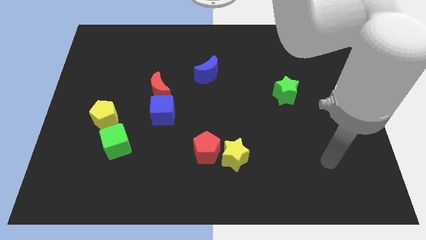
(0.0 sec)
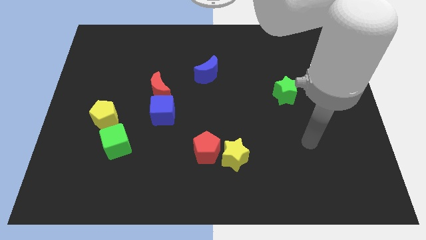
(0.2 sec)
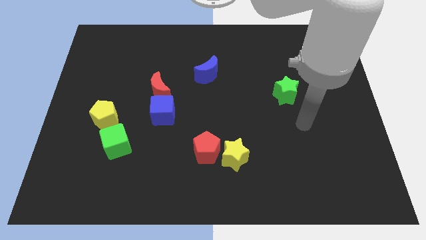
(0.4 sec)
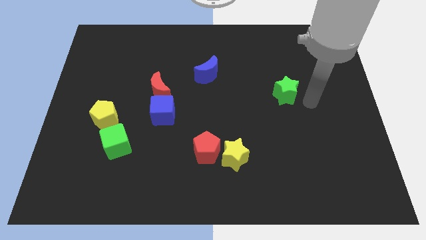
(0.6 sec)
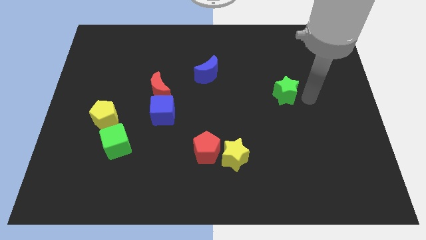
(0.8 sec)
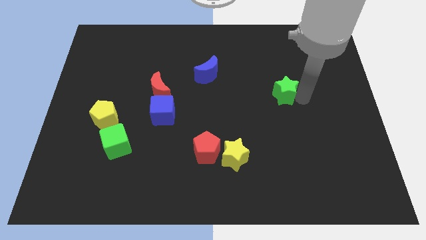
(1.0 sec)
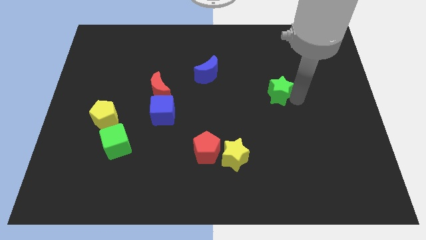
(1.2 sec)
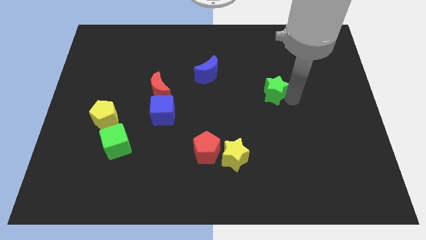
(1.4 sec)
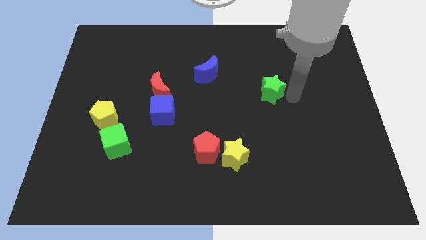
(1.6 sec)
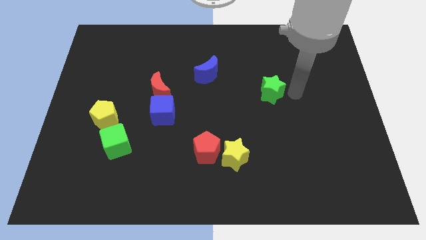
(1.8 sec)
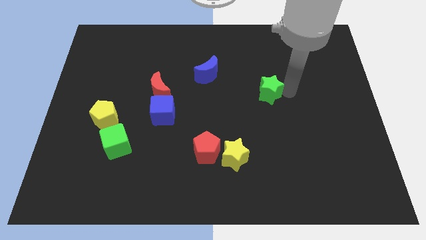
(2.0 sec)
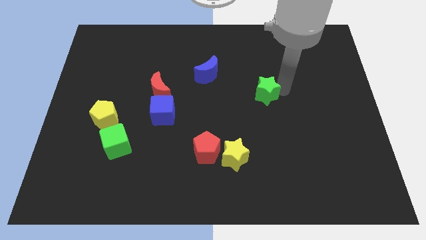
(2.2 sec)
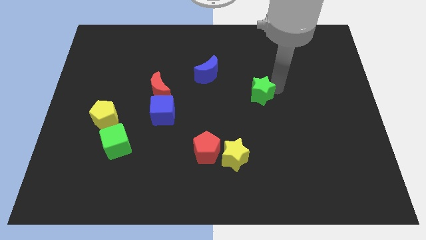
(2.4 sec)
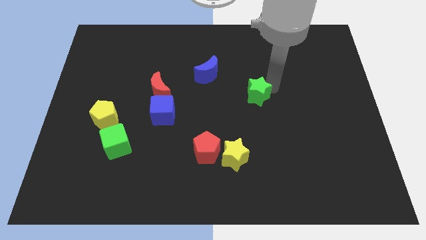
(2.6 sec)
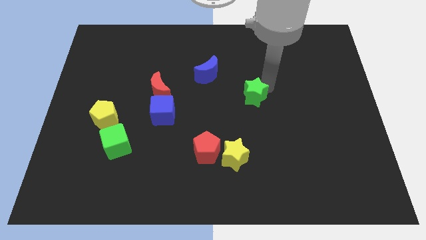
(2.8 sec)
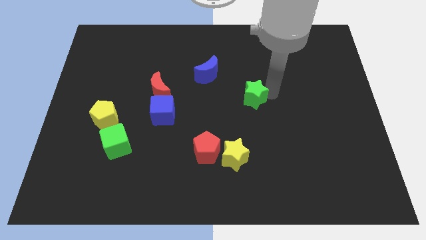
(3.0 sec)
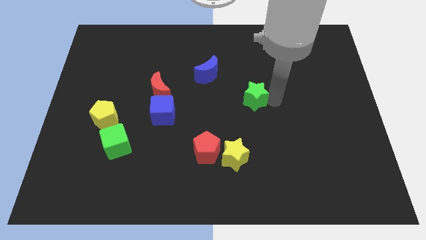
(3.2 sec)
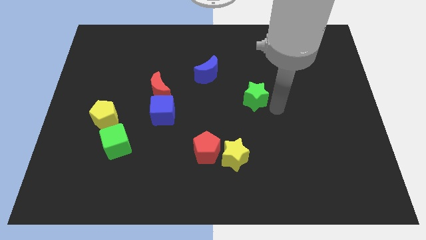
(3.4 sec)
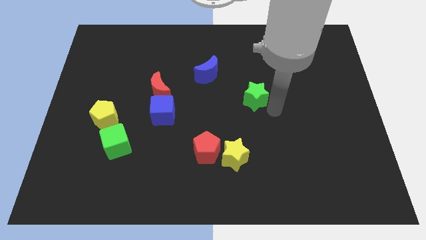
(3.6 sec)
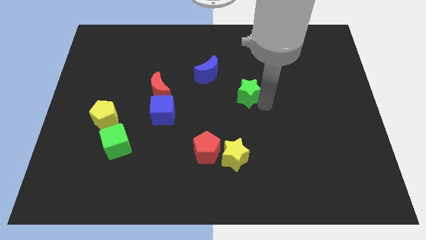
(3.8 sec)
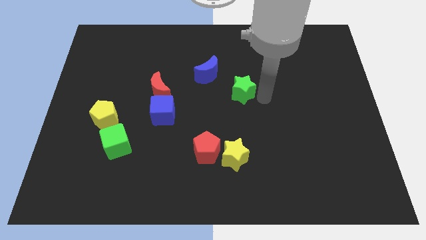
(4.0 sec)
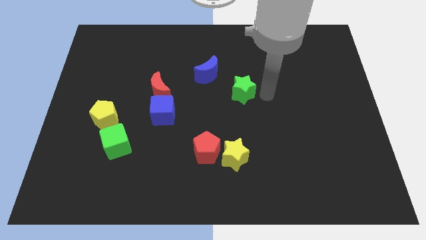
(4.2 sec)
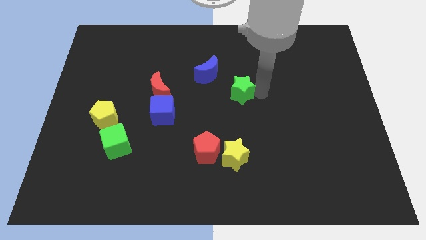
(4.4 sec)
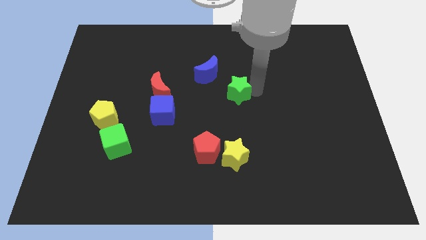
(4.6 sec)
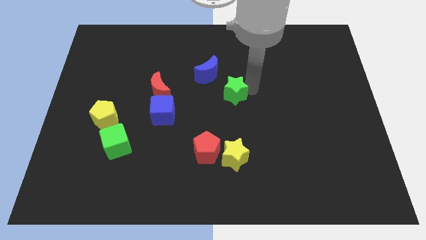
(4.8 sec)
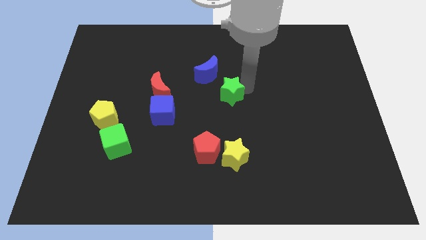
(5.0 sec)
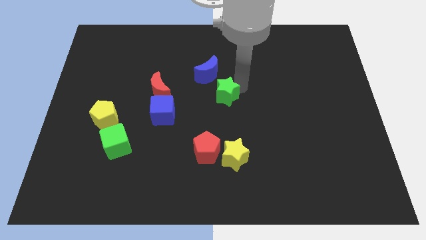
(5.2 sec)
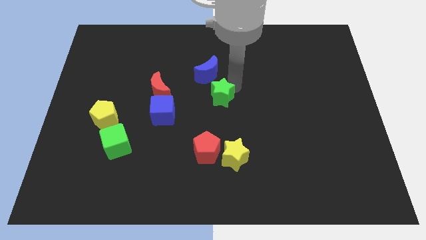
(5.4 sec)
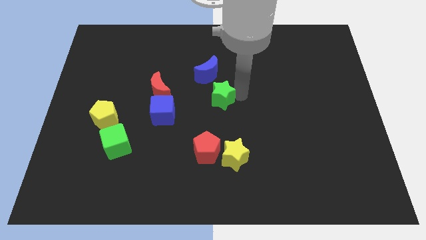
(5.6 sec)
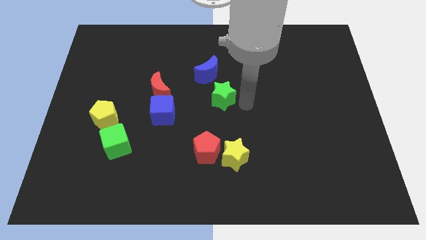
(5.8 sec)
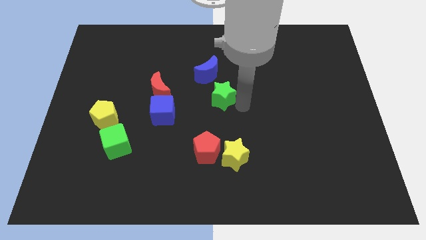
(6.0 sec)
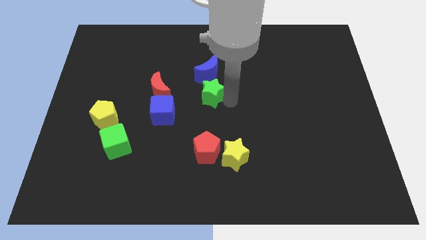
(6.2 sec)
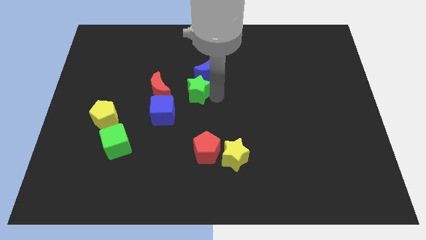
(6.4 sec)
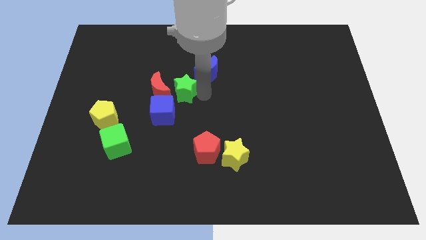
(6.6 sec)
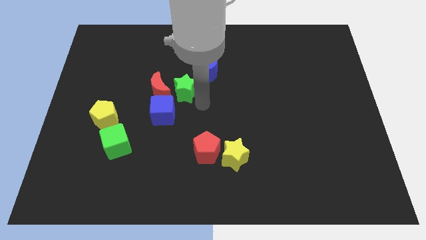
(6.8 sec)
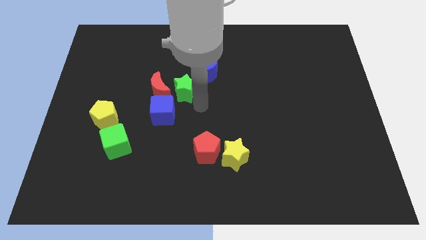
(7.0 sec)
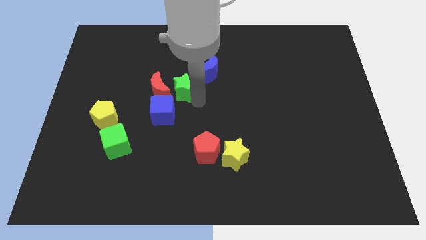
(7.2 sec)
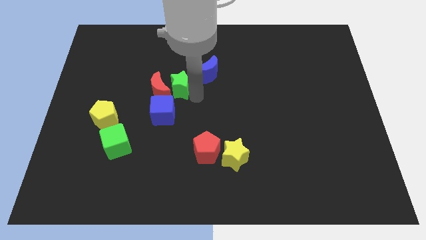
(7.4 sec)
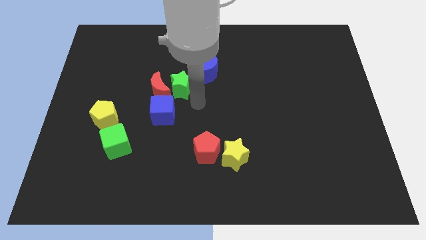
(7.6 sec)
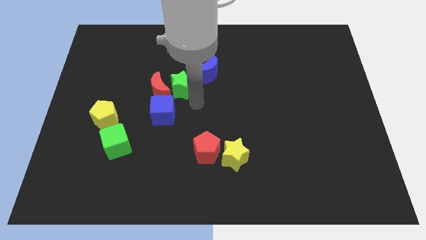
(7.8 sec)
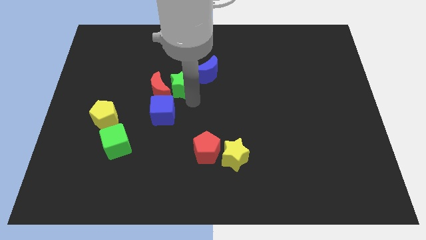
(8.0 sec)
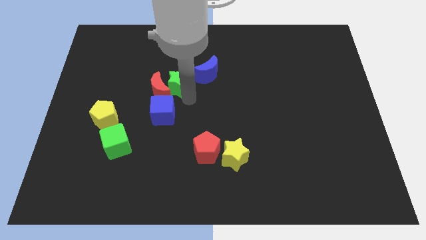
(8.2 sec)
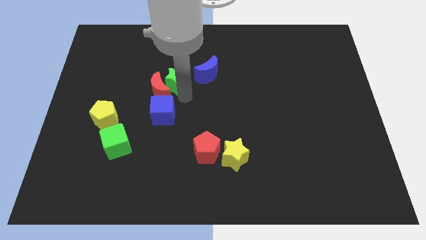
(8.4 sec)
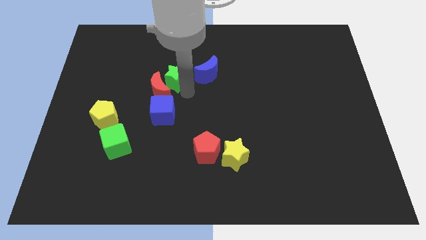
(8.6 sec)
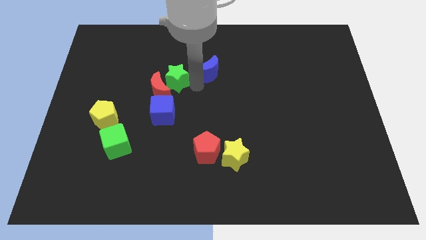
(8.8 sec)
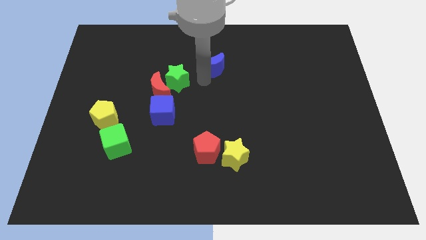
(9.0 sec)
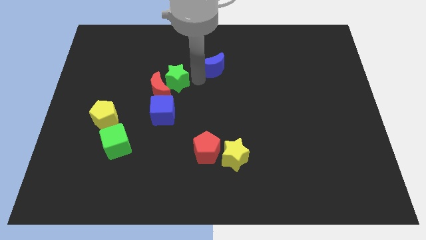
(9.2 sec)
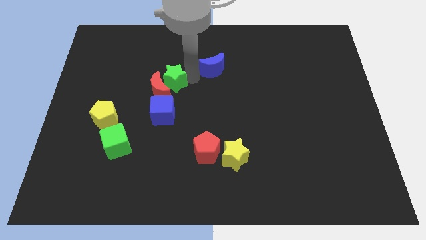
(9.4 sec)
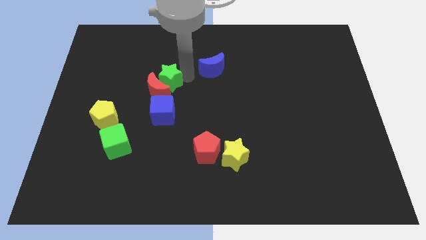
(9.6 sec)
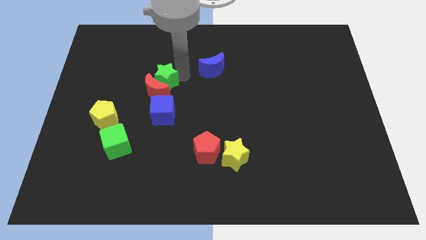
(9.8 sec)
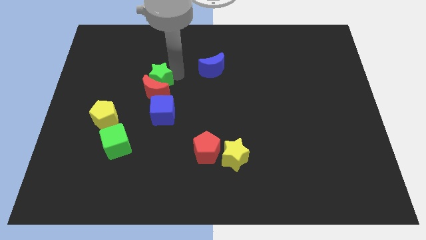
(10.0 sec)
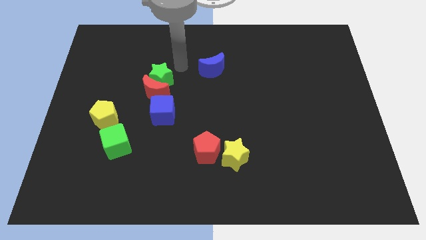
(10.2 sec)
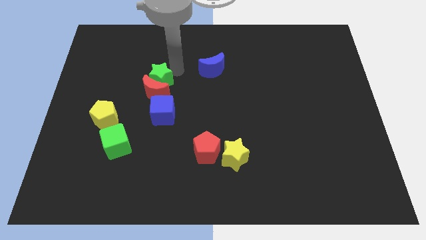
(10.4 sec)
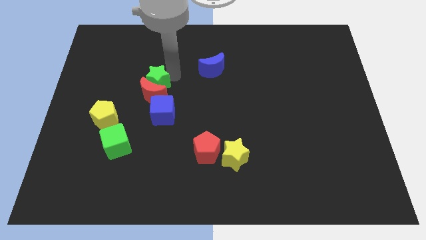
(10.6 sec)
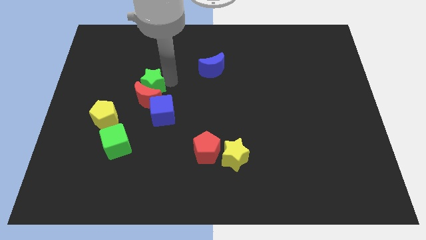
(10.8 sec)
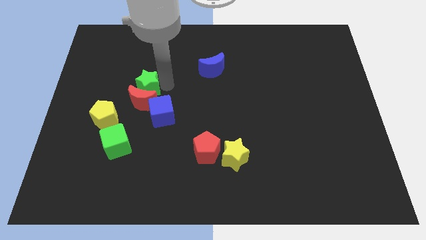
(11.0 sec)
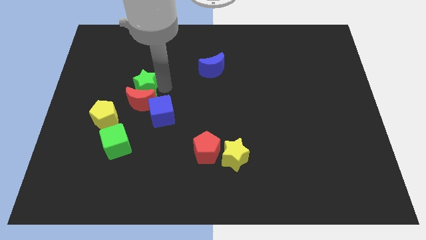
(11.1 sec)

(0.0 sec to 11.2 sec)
move the green star to the top right of the yellow pentagon

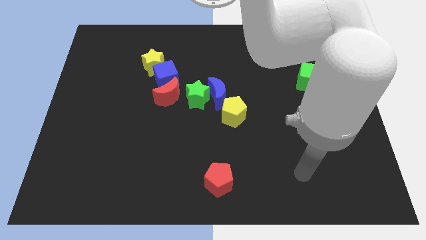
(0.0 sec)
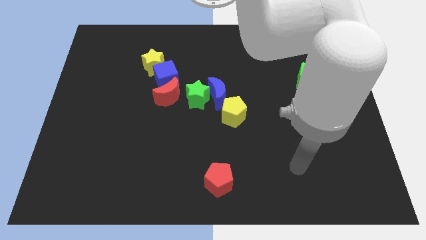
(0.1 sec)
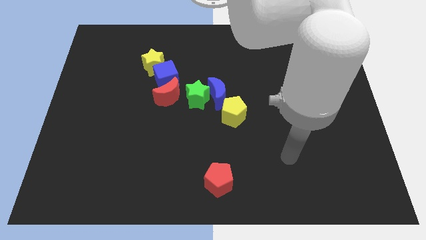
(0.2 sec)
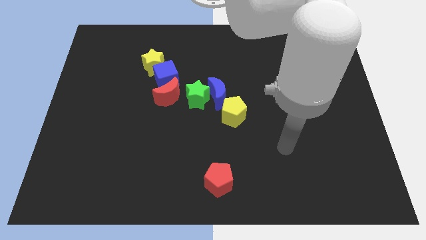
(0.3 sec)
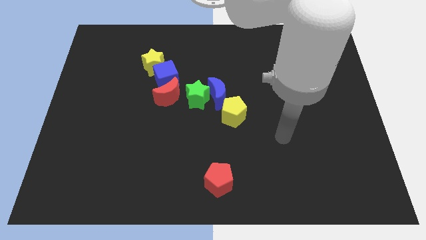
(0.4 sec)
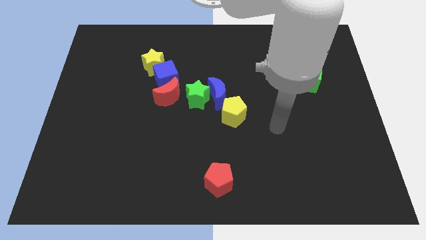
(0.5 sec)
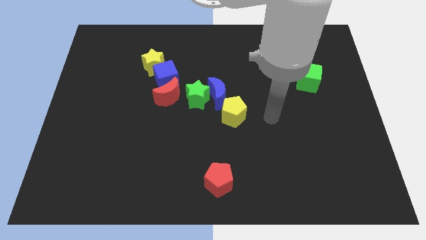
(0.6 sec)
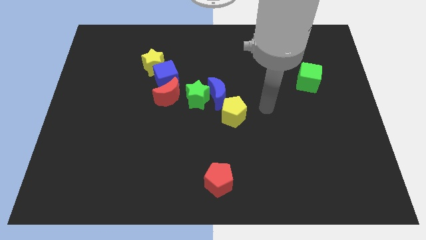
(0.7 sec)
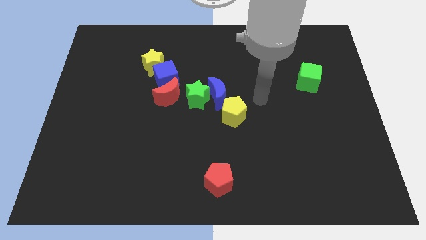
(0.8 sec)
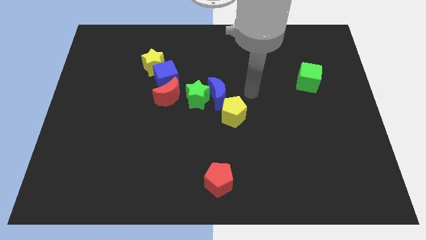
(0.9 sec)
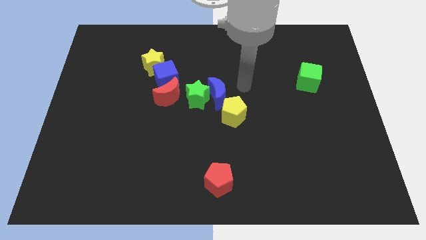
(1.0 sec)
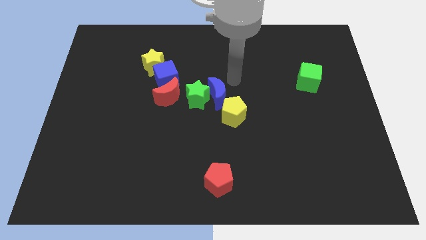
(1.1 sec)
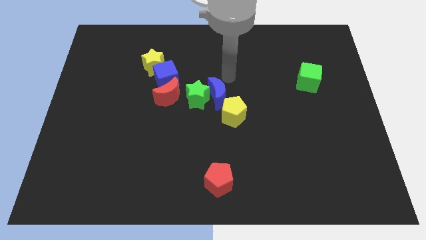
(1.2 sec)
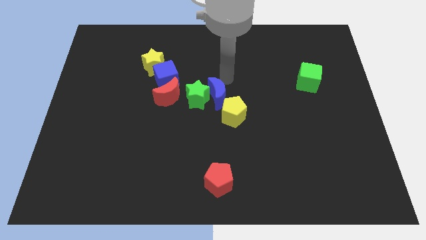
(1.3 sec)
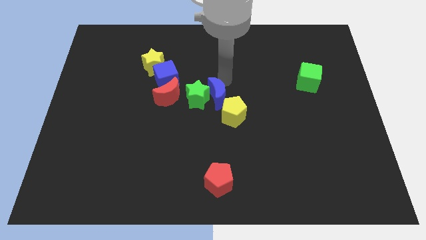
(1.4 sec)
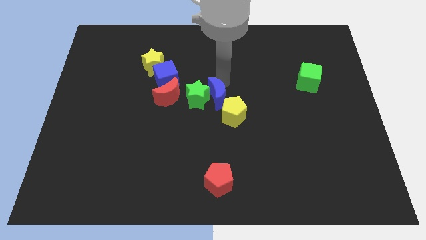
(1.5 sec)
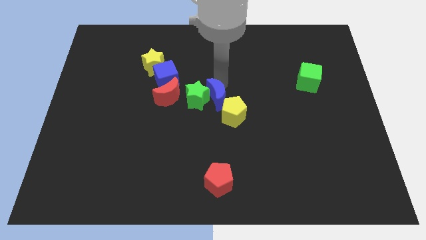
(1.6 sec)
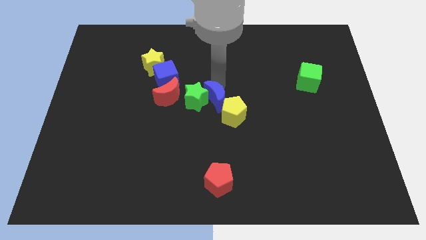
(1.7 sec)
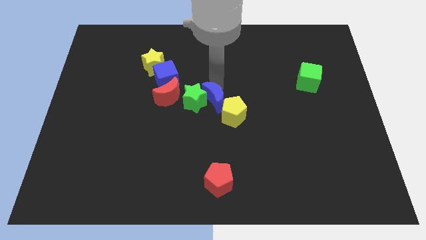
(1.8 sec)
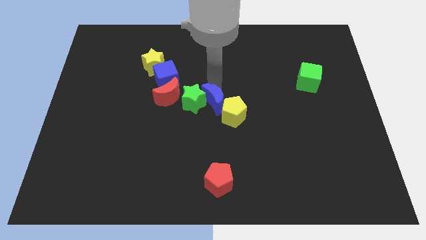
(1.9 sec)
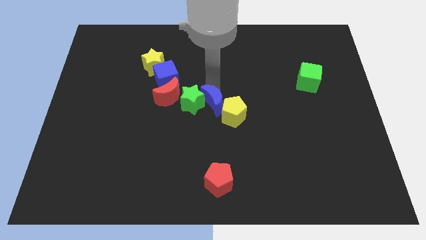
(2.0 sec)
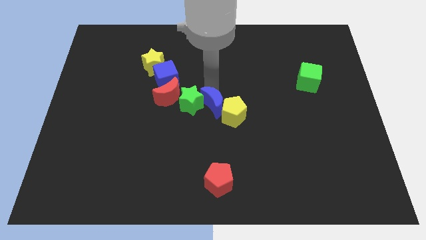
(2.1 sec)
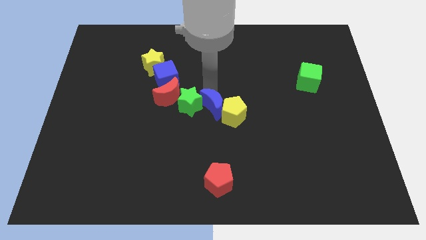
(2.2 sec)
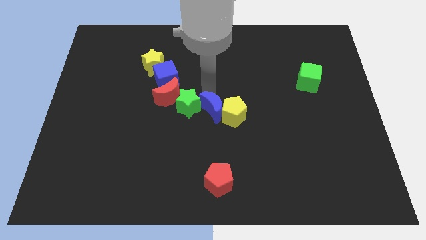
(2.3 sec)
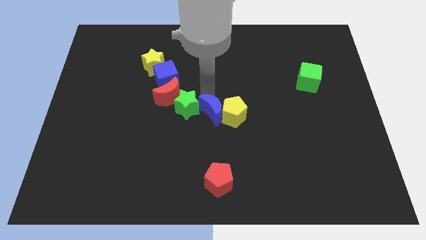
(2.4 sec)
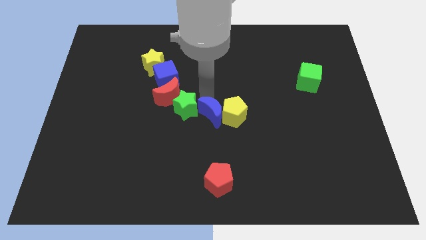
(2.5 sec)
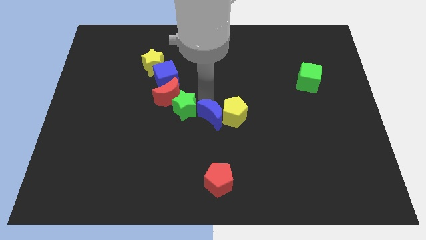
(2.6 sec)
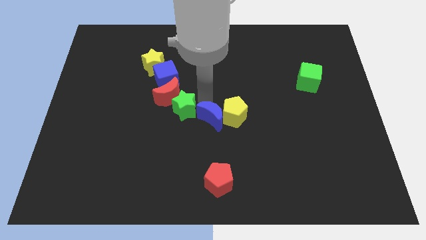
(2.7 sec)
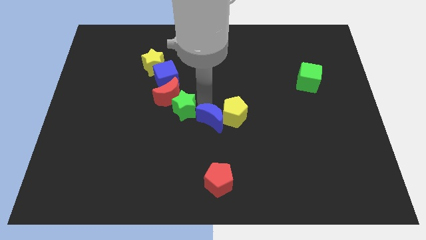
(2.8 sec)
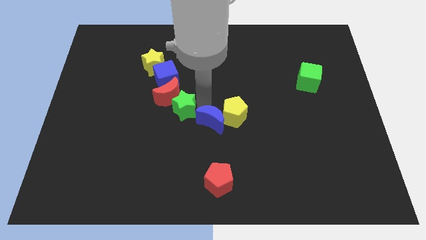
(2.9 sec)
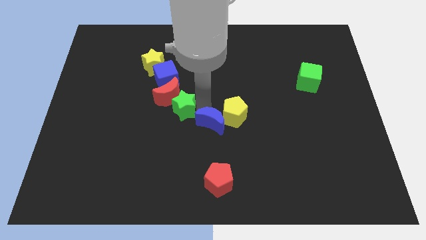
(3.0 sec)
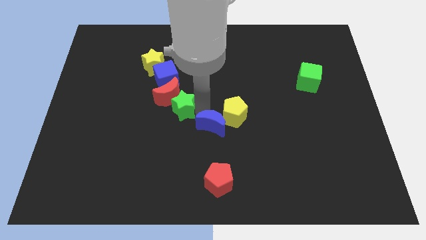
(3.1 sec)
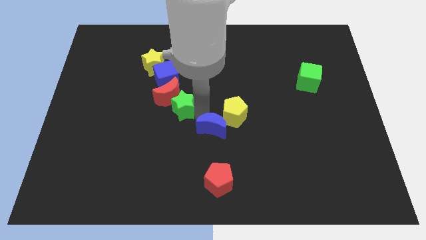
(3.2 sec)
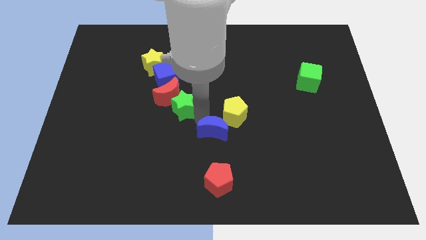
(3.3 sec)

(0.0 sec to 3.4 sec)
move the blue moon to the bottom side of the yellow pentagon
